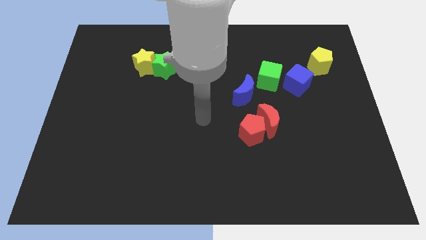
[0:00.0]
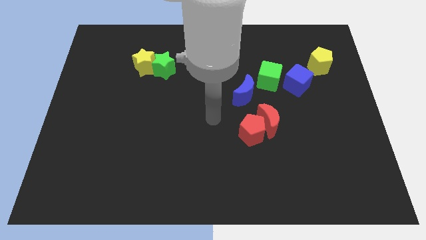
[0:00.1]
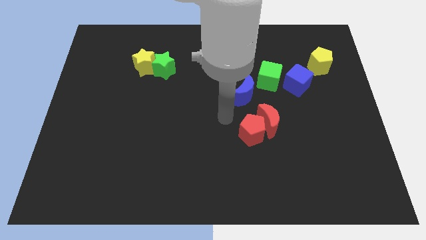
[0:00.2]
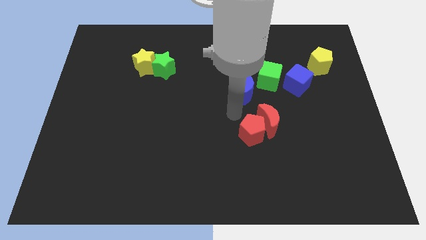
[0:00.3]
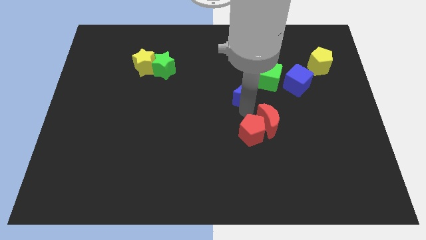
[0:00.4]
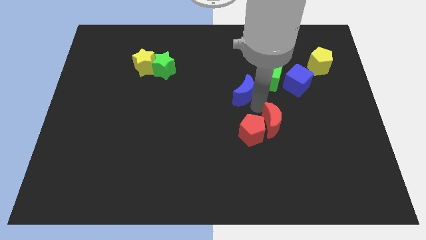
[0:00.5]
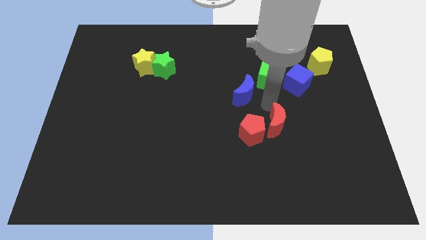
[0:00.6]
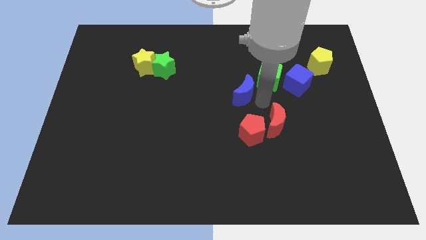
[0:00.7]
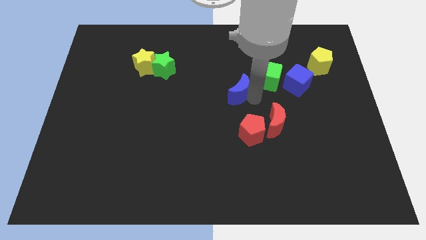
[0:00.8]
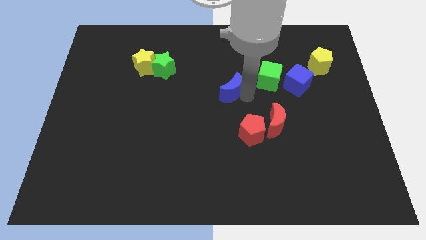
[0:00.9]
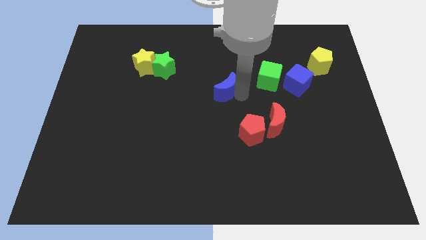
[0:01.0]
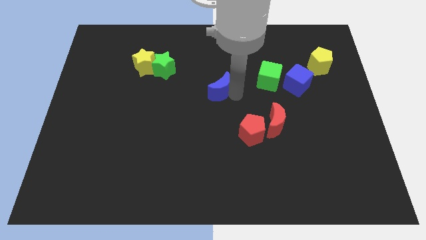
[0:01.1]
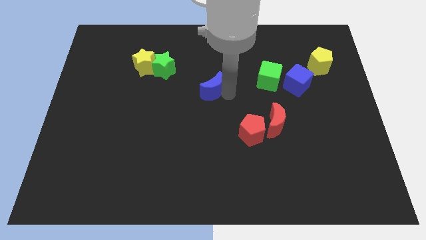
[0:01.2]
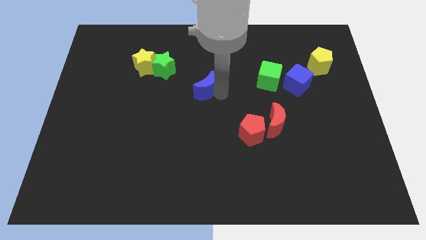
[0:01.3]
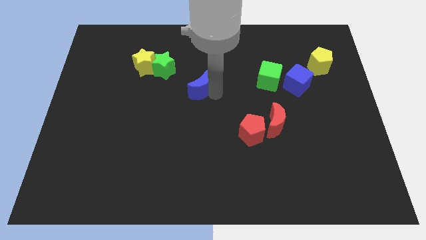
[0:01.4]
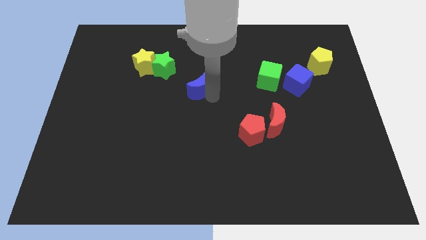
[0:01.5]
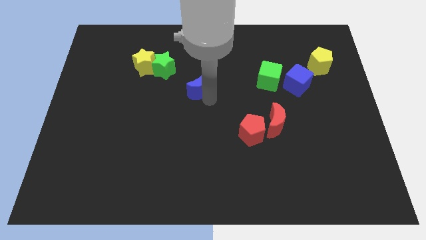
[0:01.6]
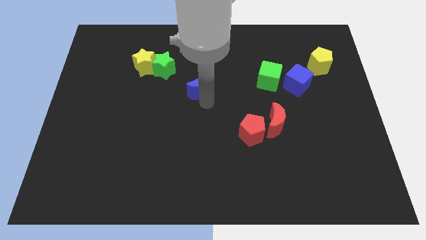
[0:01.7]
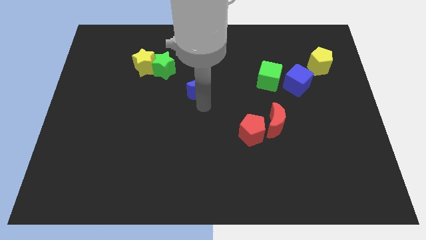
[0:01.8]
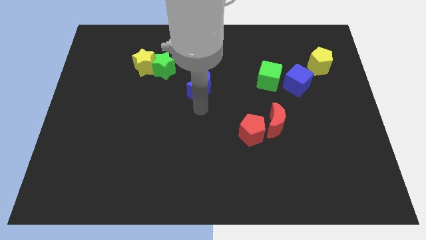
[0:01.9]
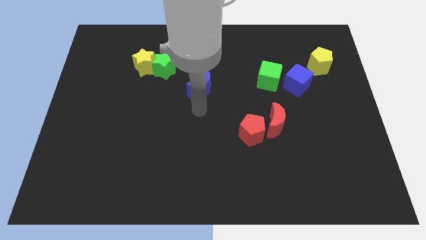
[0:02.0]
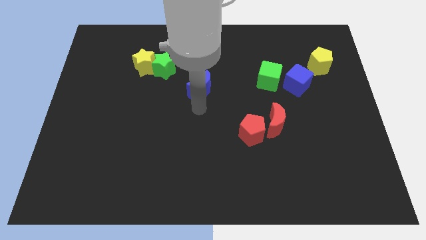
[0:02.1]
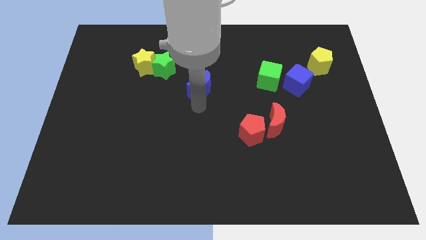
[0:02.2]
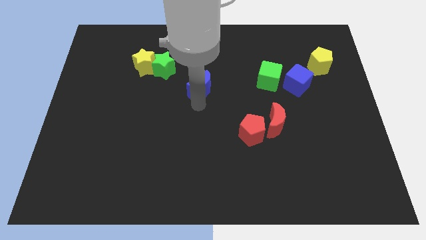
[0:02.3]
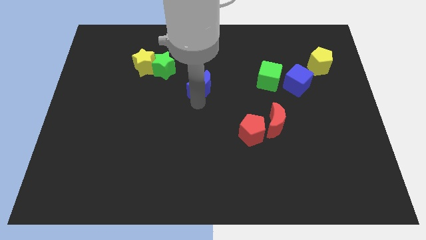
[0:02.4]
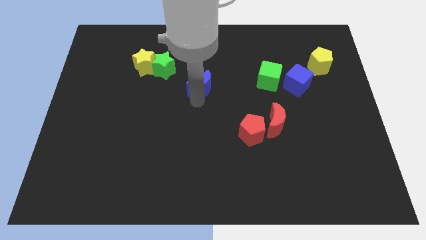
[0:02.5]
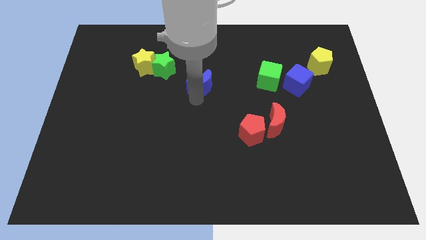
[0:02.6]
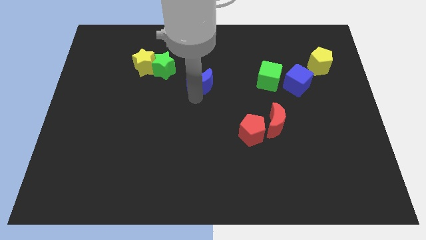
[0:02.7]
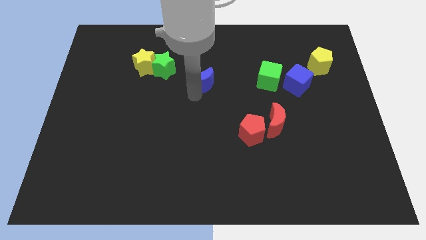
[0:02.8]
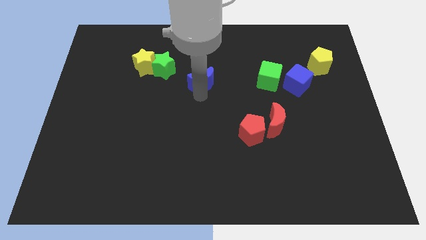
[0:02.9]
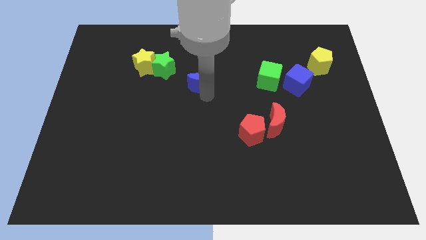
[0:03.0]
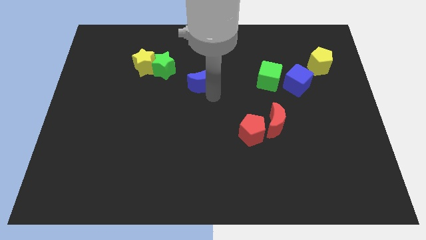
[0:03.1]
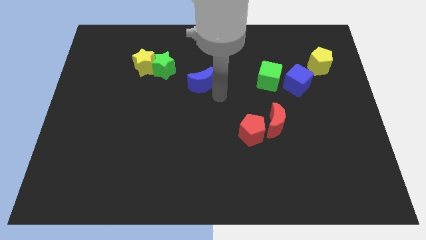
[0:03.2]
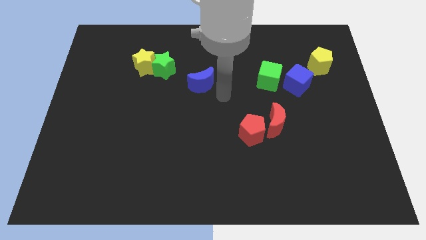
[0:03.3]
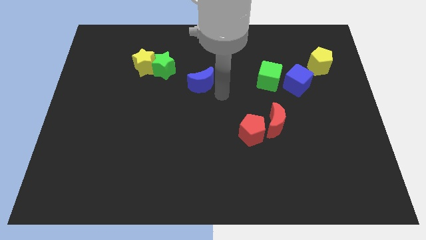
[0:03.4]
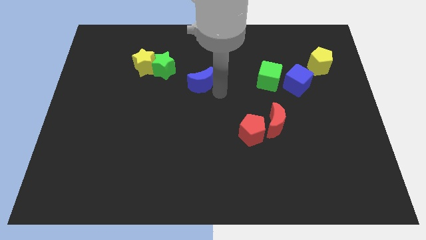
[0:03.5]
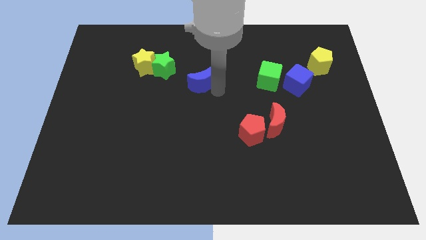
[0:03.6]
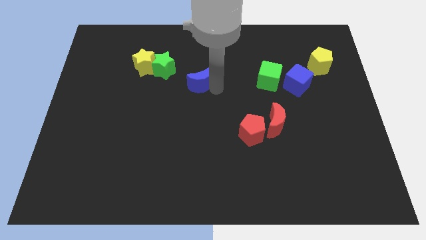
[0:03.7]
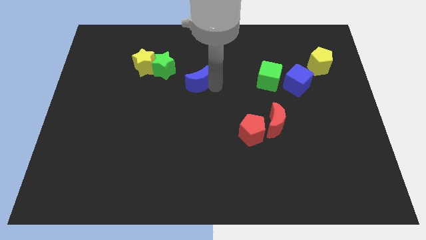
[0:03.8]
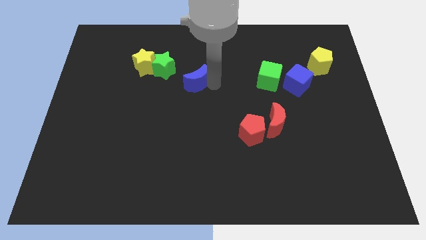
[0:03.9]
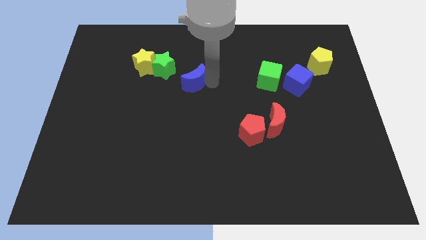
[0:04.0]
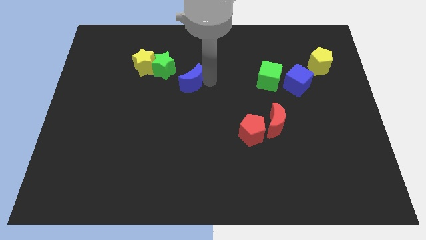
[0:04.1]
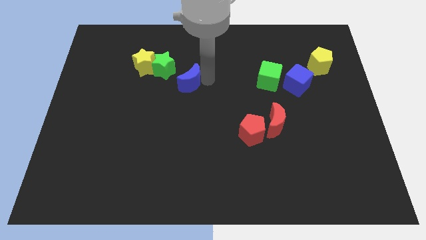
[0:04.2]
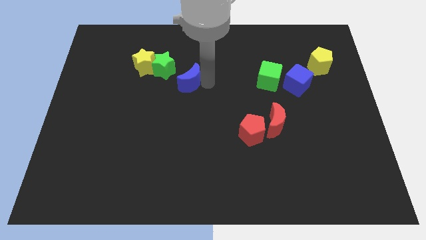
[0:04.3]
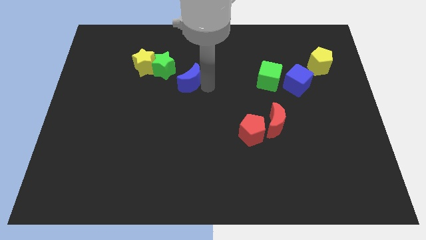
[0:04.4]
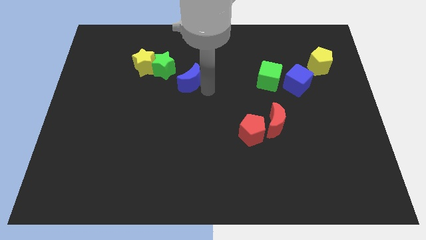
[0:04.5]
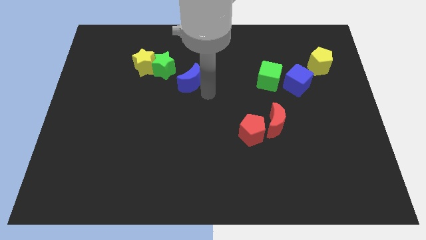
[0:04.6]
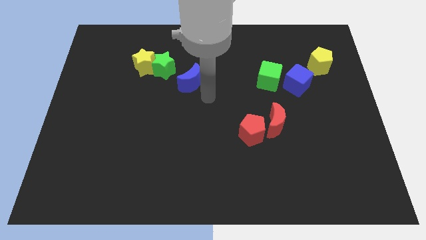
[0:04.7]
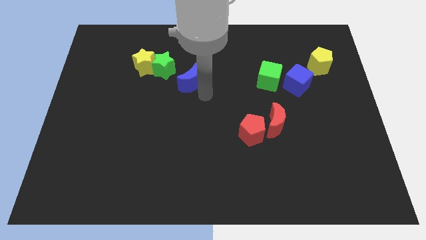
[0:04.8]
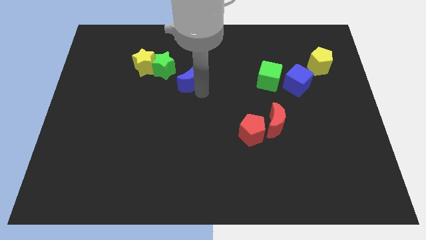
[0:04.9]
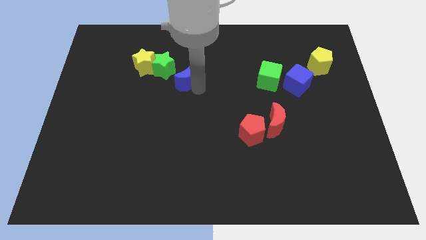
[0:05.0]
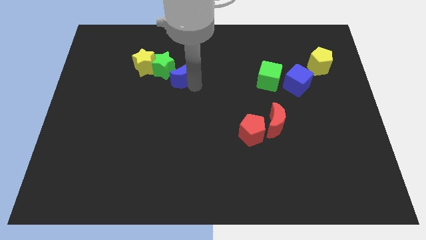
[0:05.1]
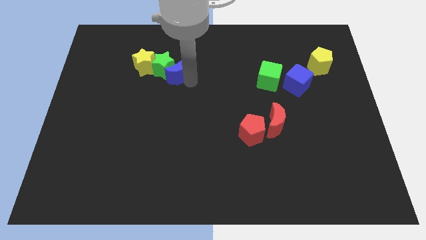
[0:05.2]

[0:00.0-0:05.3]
move the blue moon close to the green star

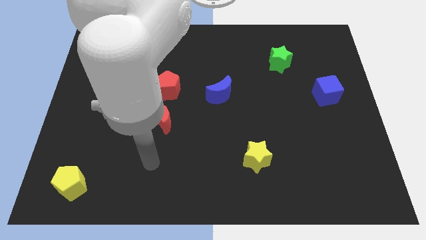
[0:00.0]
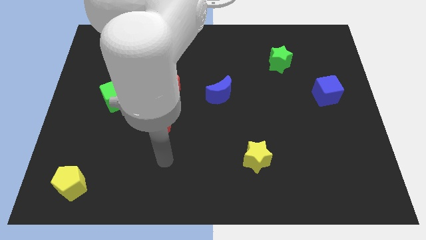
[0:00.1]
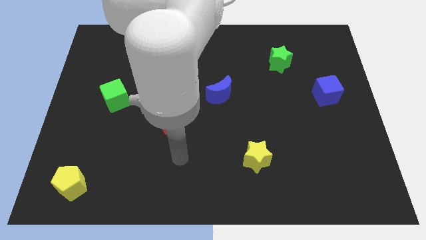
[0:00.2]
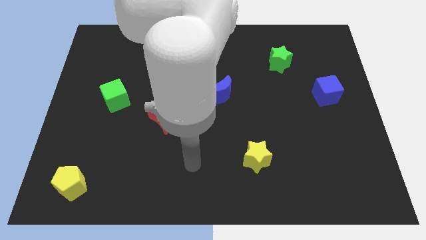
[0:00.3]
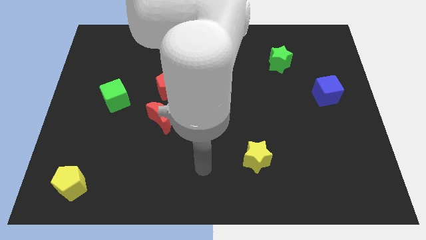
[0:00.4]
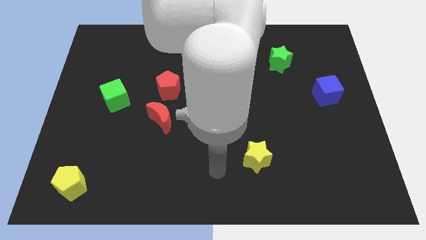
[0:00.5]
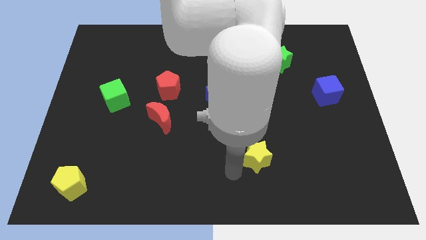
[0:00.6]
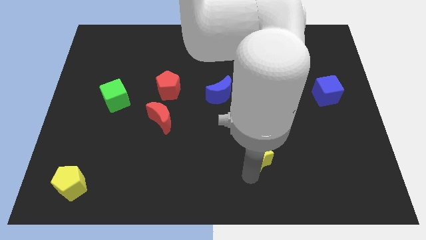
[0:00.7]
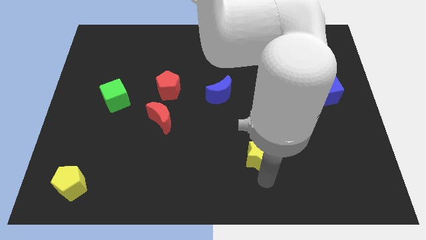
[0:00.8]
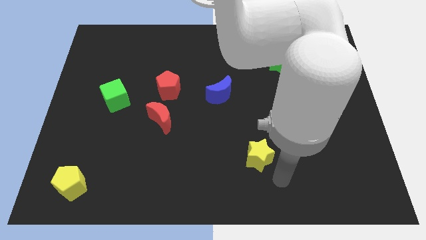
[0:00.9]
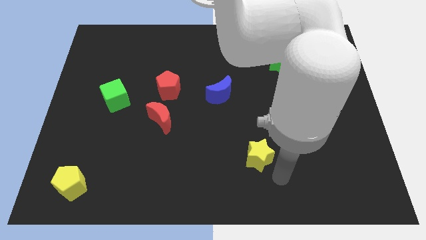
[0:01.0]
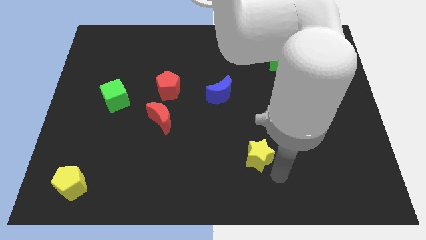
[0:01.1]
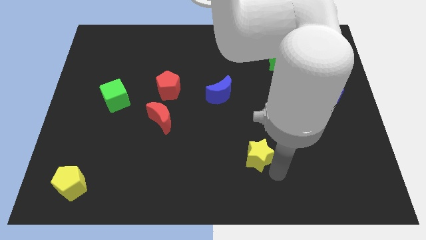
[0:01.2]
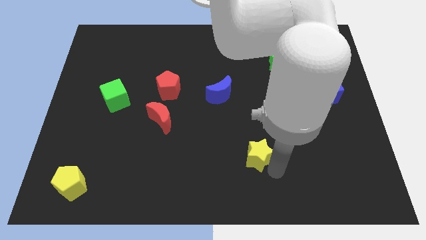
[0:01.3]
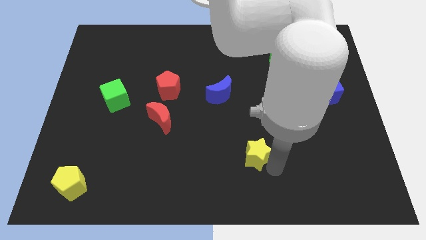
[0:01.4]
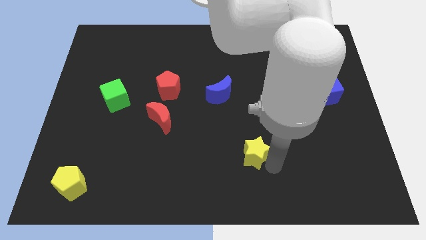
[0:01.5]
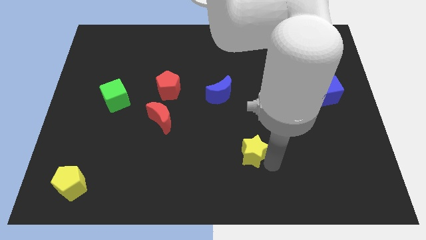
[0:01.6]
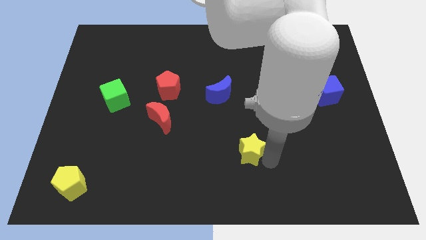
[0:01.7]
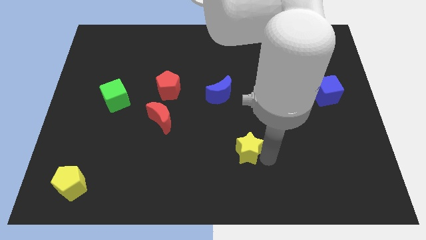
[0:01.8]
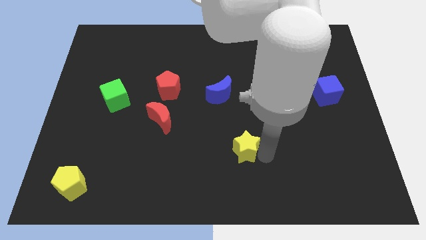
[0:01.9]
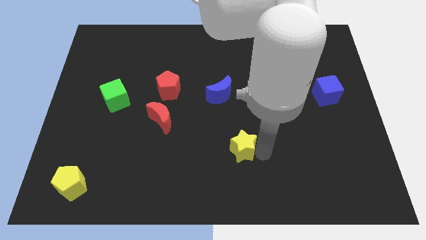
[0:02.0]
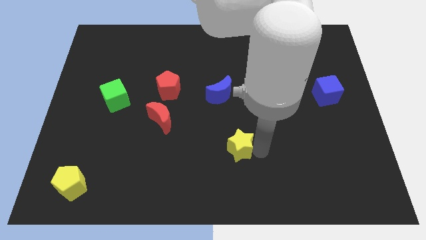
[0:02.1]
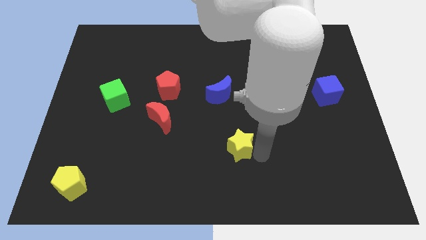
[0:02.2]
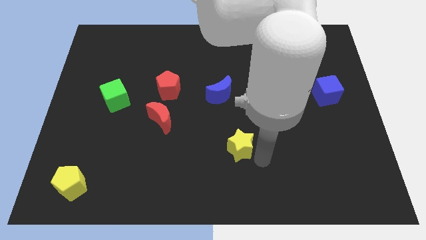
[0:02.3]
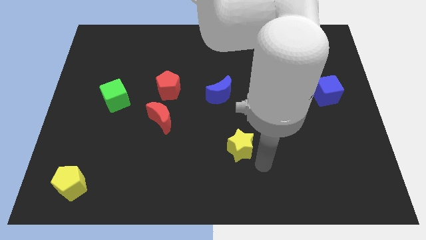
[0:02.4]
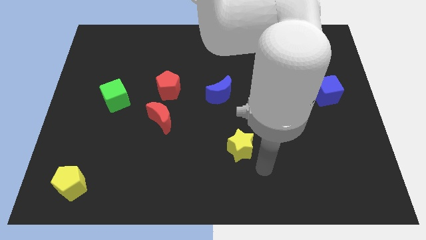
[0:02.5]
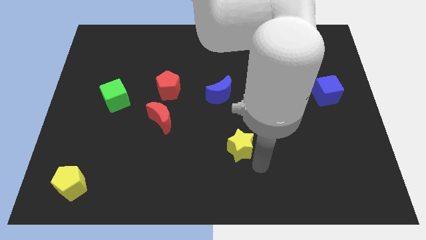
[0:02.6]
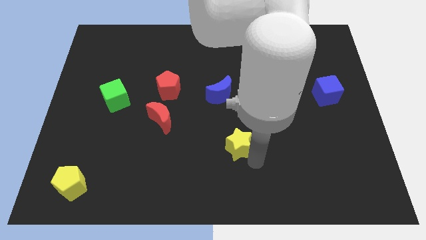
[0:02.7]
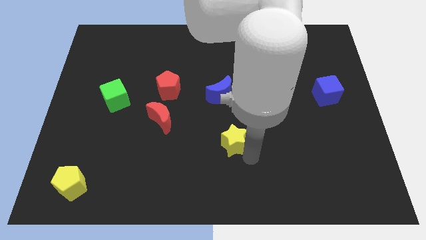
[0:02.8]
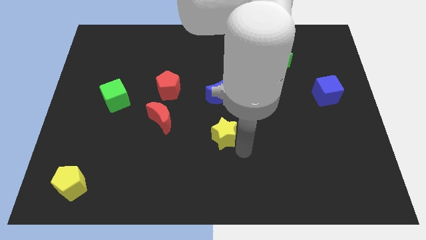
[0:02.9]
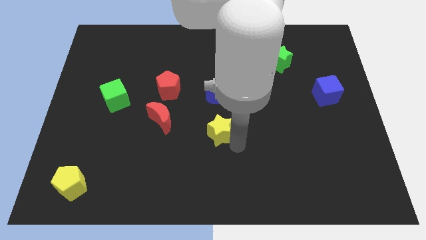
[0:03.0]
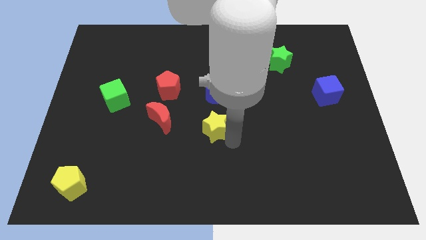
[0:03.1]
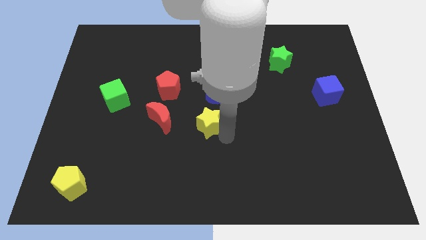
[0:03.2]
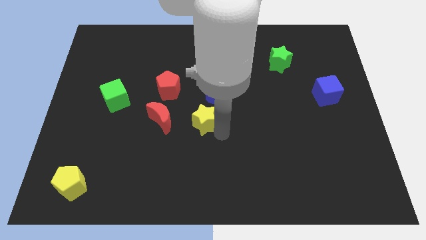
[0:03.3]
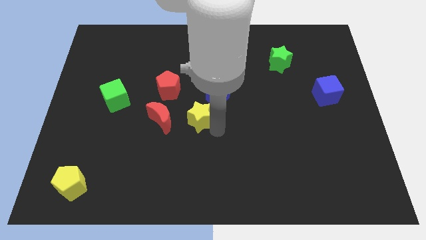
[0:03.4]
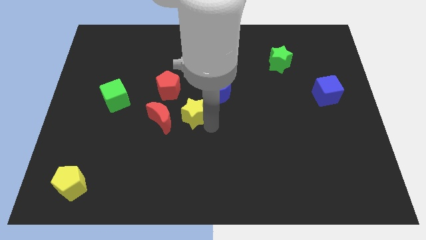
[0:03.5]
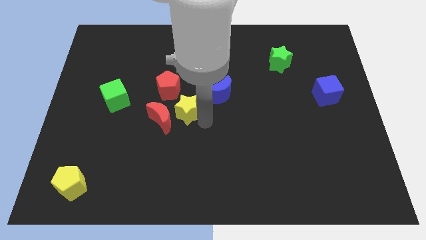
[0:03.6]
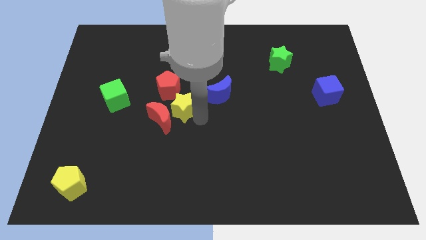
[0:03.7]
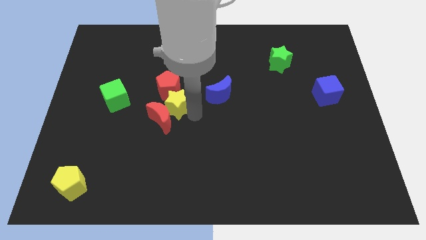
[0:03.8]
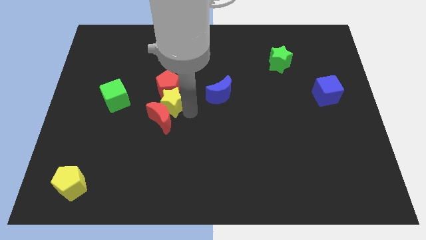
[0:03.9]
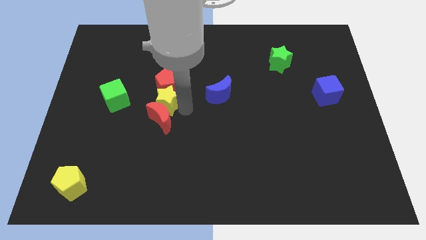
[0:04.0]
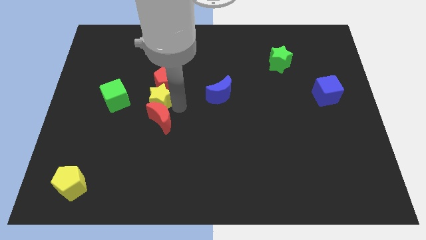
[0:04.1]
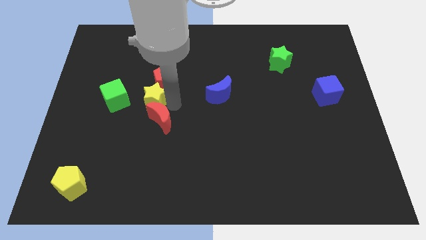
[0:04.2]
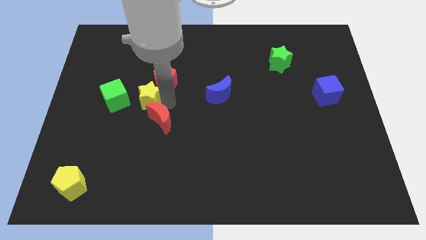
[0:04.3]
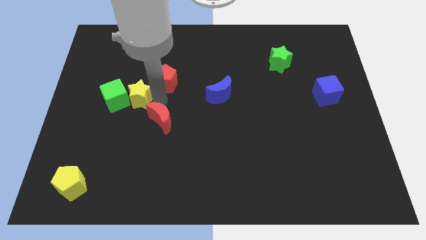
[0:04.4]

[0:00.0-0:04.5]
push the yellow star next to the green cube
